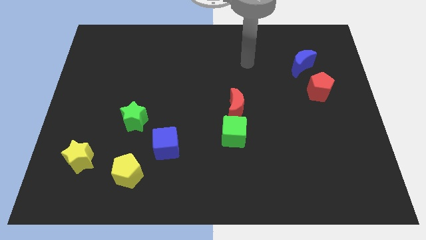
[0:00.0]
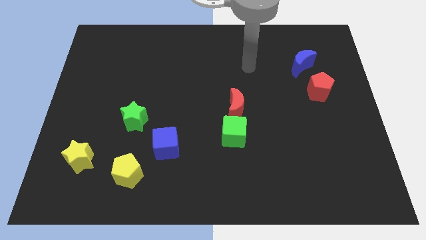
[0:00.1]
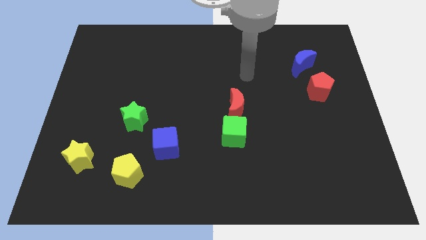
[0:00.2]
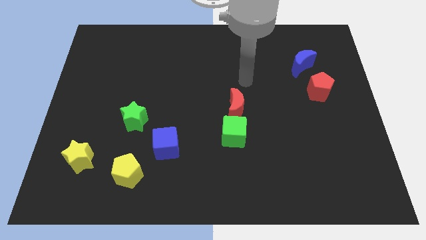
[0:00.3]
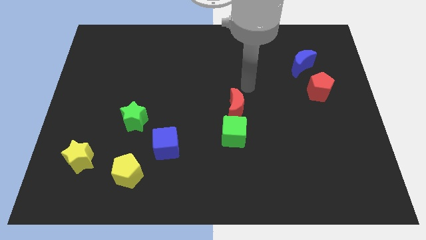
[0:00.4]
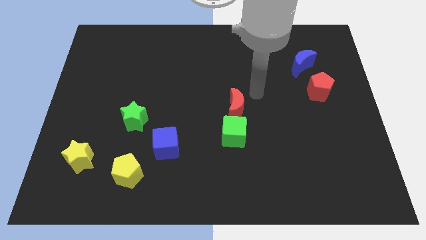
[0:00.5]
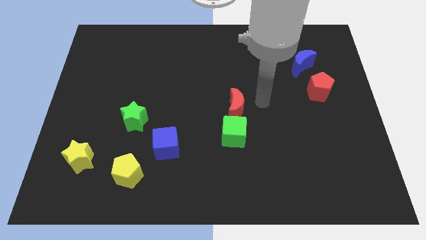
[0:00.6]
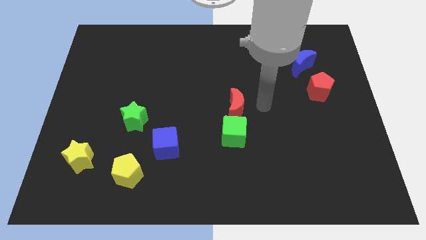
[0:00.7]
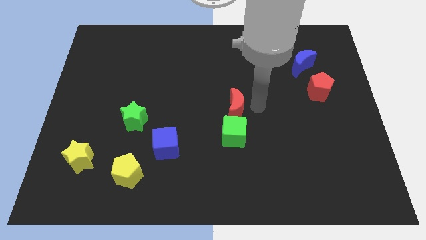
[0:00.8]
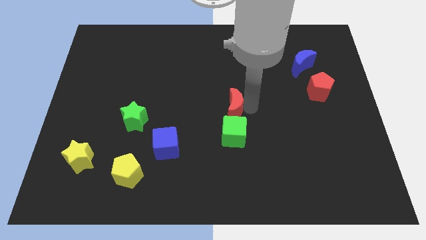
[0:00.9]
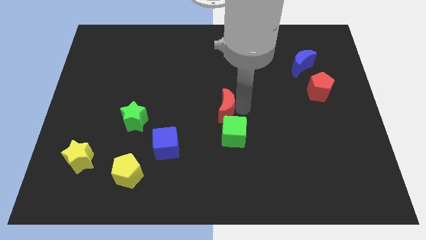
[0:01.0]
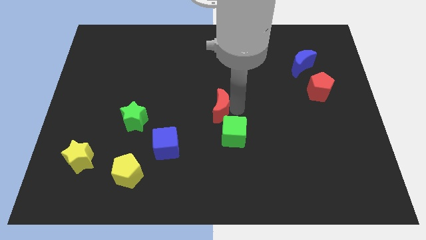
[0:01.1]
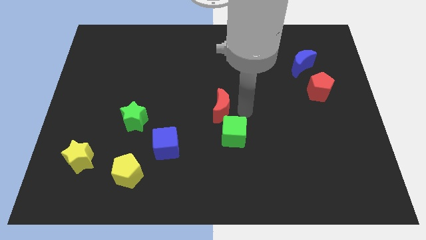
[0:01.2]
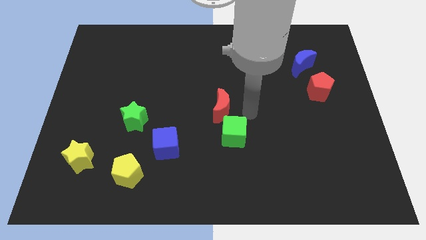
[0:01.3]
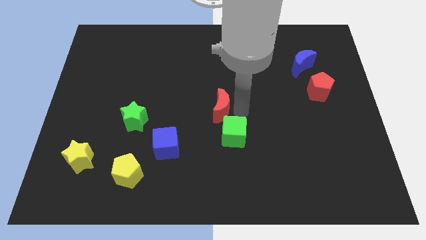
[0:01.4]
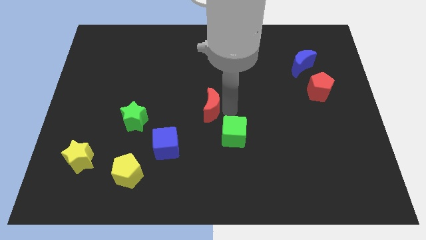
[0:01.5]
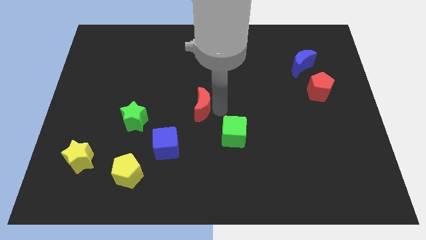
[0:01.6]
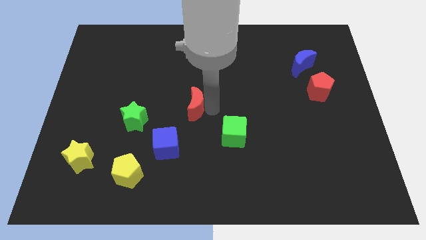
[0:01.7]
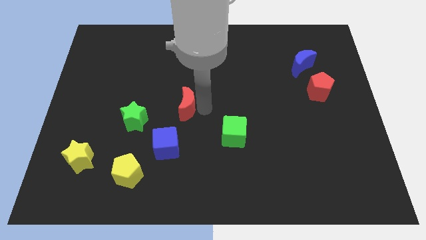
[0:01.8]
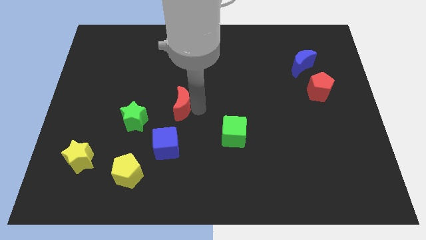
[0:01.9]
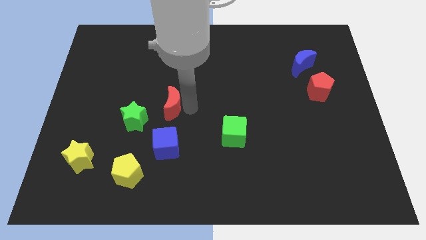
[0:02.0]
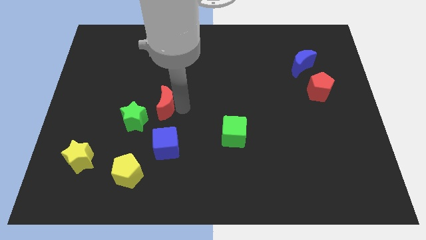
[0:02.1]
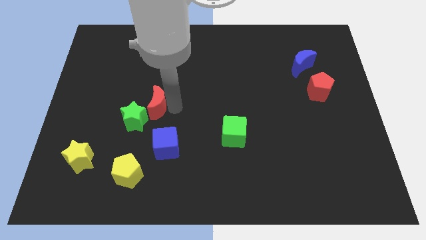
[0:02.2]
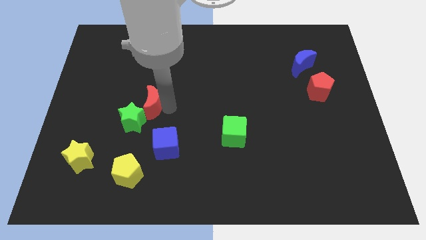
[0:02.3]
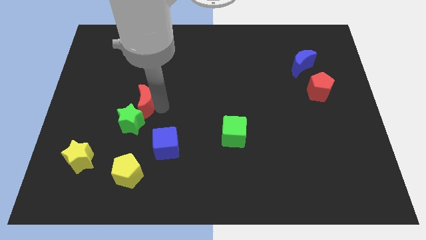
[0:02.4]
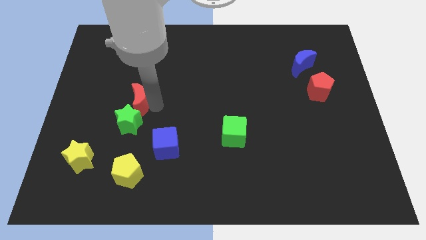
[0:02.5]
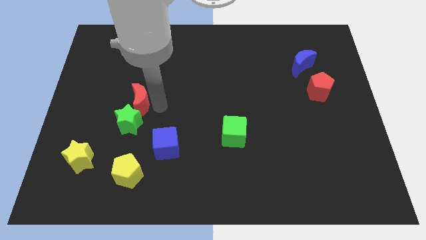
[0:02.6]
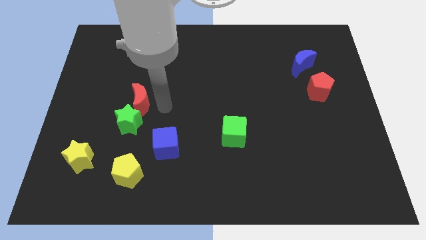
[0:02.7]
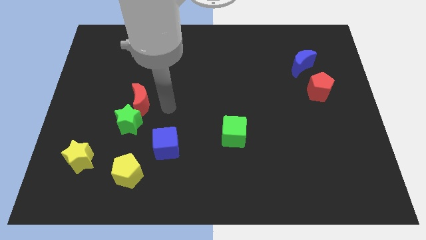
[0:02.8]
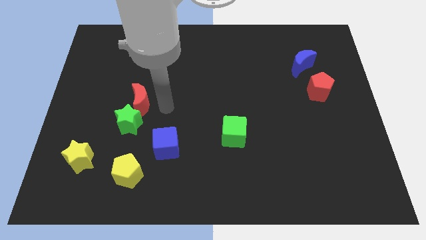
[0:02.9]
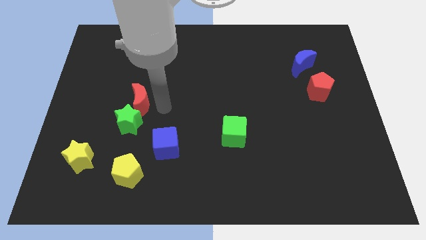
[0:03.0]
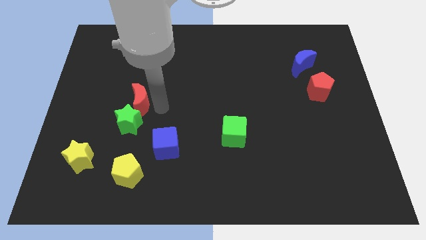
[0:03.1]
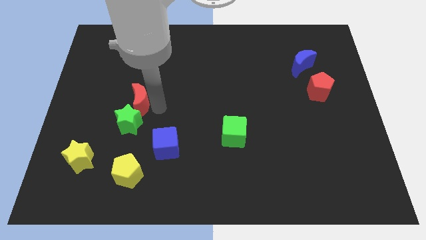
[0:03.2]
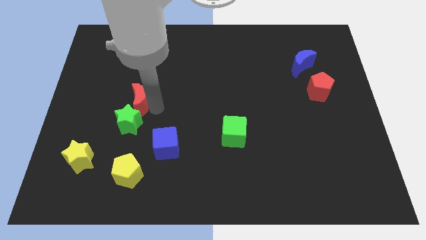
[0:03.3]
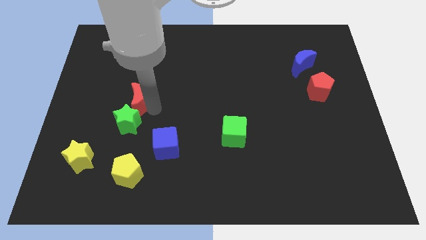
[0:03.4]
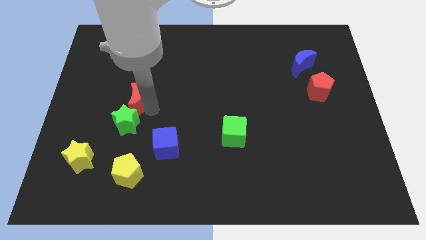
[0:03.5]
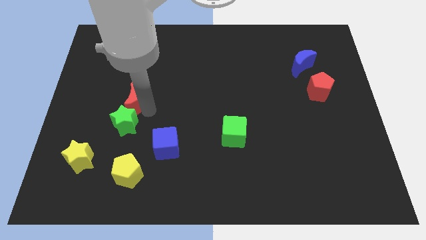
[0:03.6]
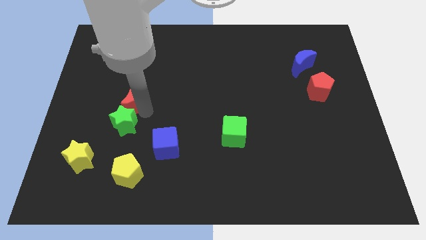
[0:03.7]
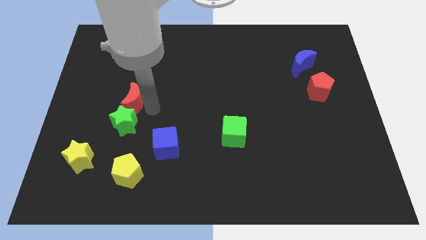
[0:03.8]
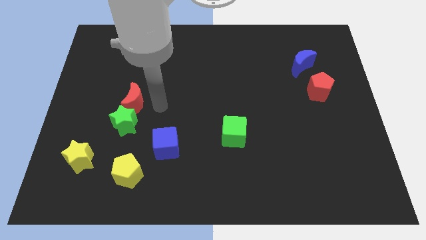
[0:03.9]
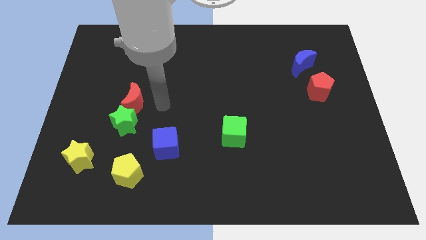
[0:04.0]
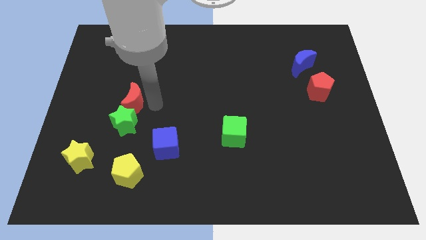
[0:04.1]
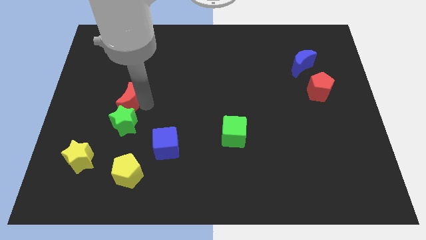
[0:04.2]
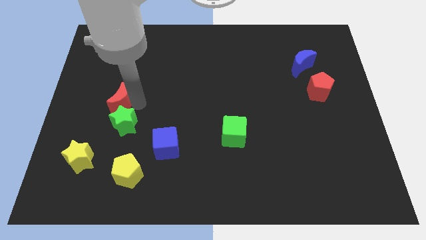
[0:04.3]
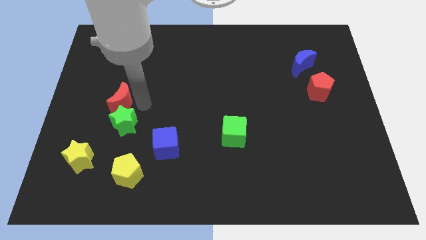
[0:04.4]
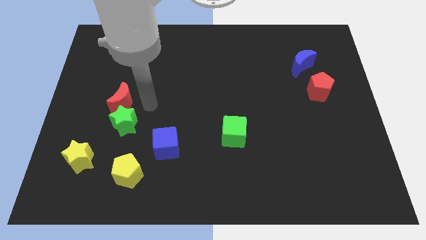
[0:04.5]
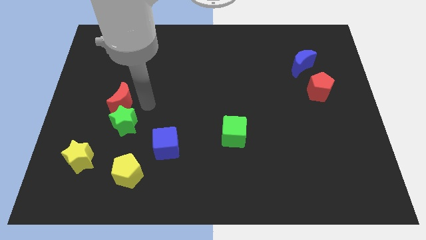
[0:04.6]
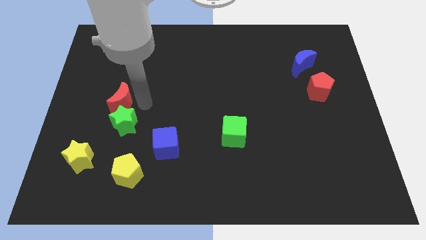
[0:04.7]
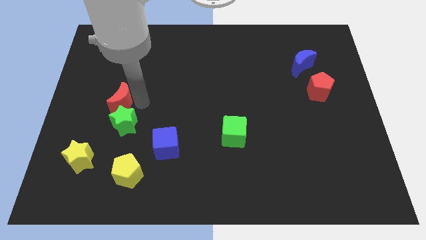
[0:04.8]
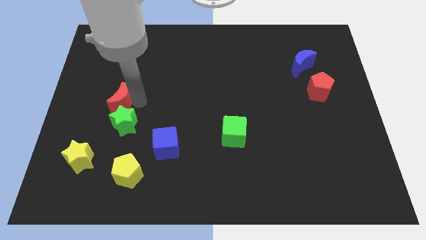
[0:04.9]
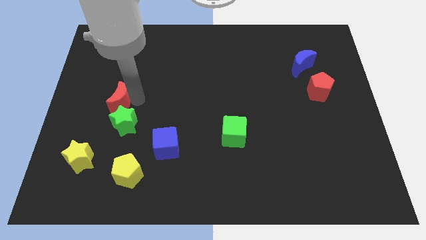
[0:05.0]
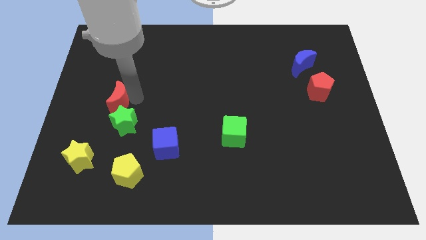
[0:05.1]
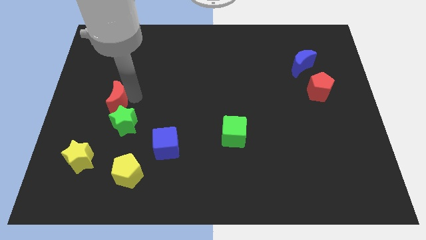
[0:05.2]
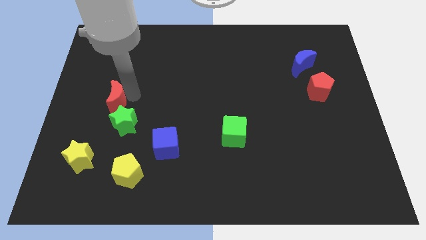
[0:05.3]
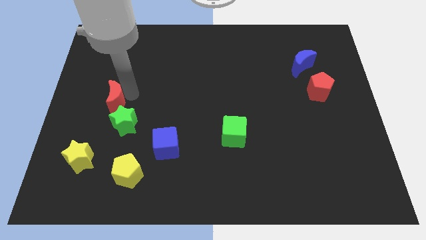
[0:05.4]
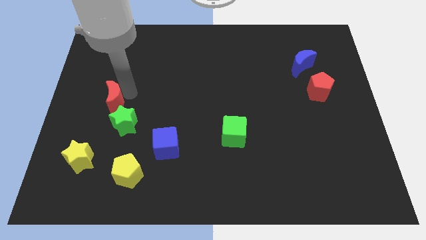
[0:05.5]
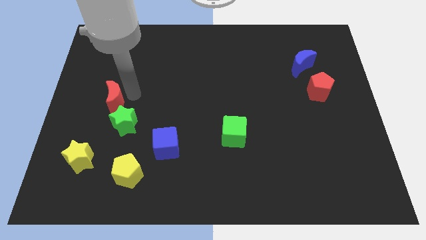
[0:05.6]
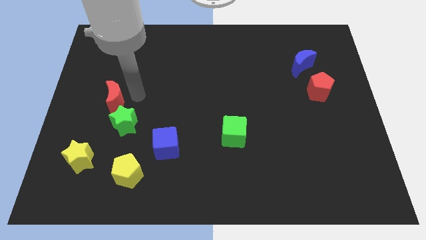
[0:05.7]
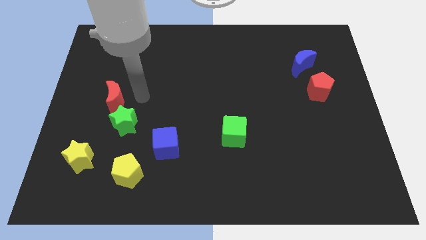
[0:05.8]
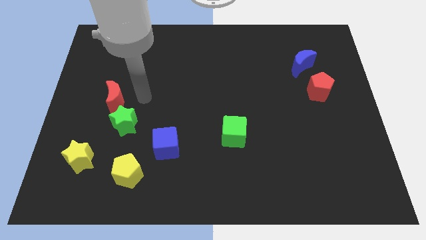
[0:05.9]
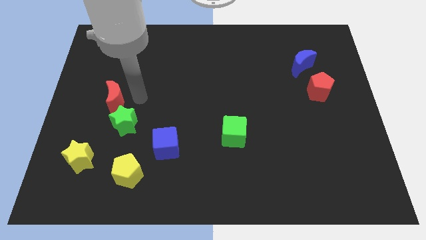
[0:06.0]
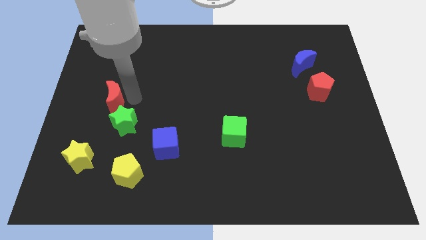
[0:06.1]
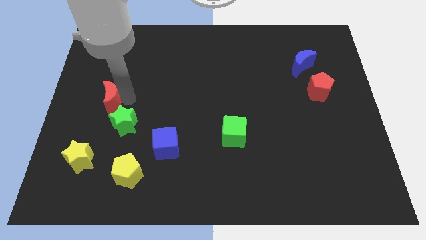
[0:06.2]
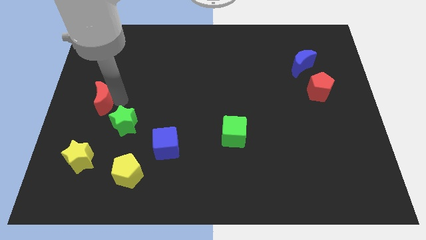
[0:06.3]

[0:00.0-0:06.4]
slide the red moon to the center left

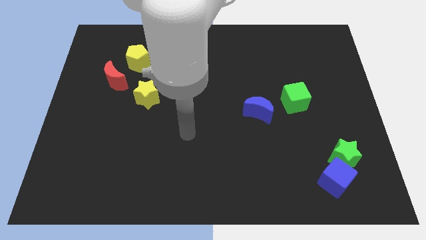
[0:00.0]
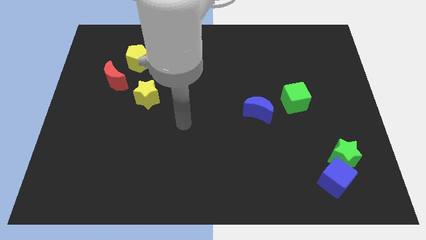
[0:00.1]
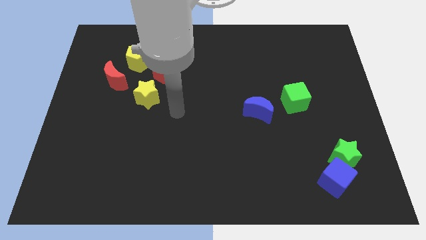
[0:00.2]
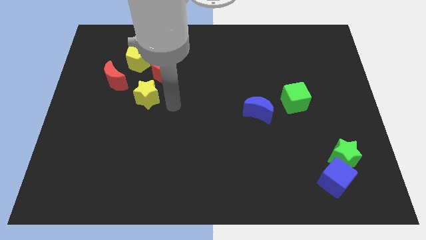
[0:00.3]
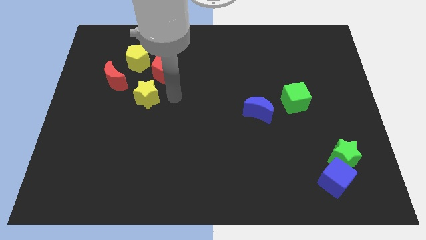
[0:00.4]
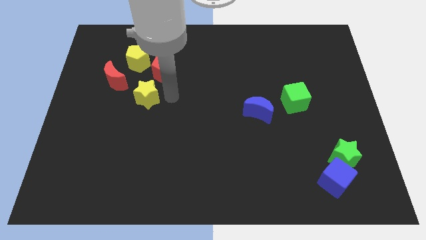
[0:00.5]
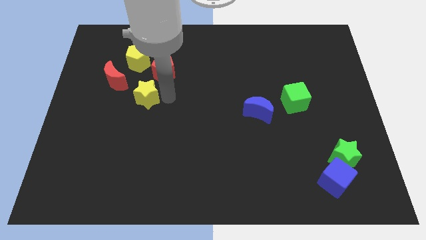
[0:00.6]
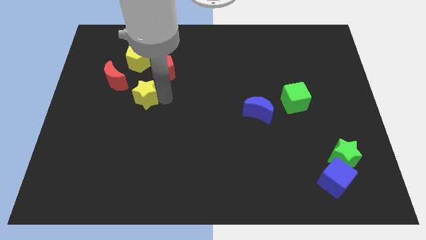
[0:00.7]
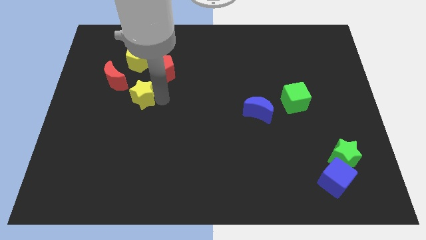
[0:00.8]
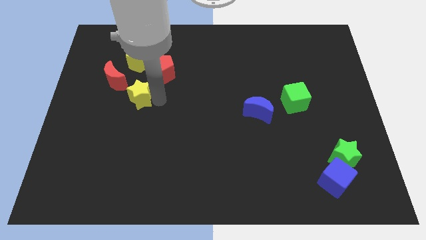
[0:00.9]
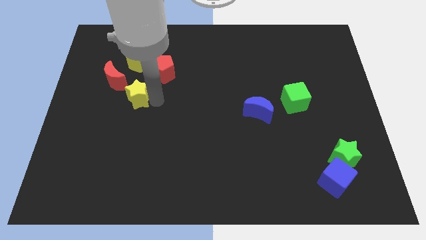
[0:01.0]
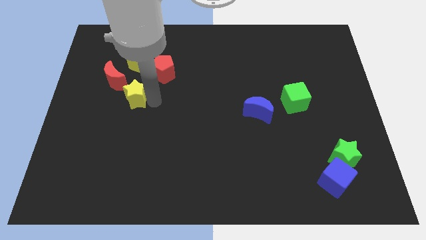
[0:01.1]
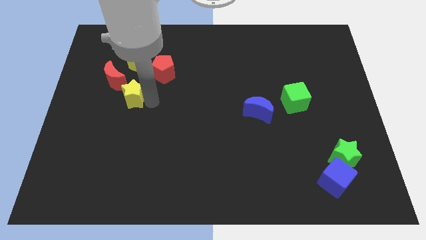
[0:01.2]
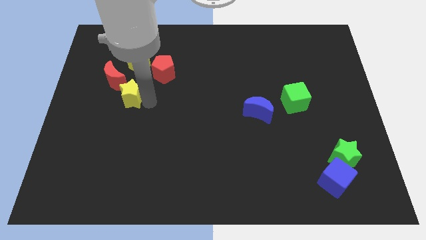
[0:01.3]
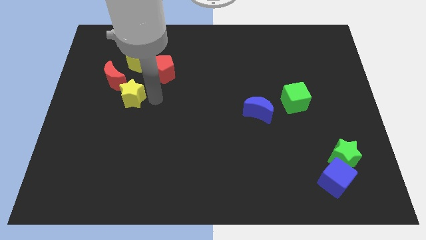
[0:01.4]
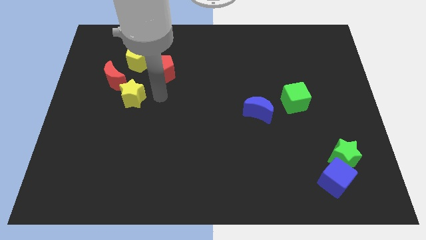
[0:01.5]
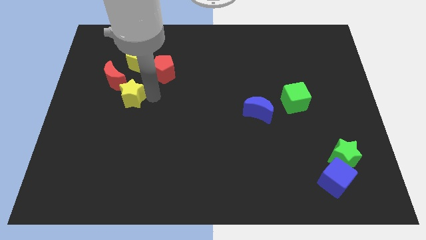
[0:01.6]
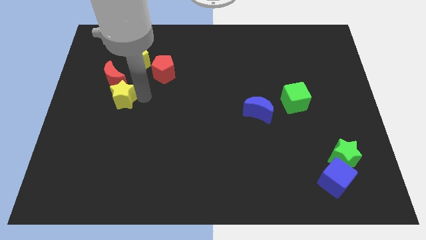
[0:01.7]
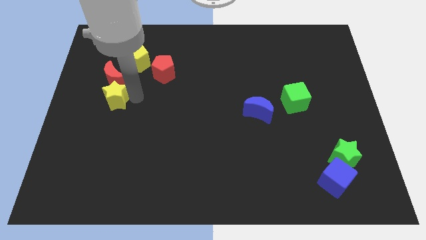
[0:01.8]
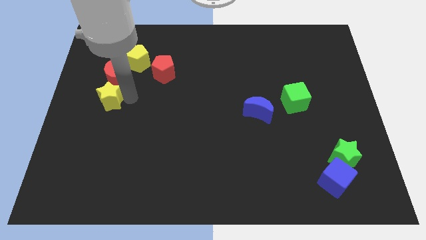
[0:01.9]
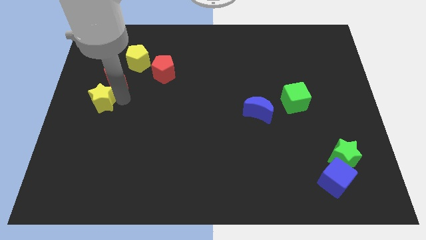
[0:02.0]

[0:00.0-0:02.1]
push the yellow star to the center left
